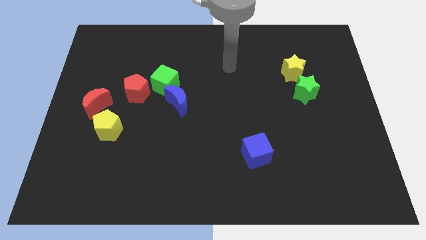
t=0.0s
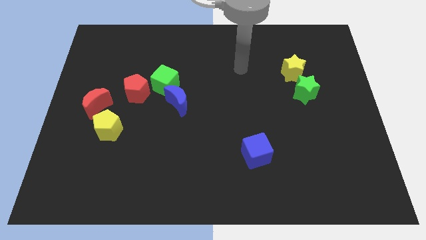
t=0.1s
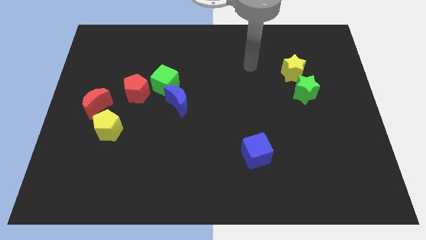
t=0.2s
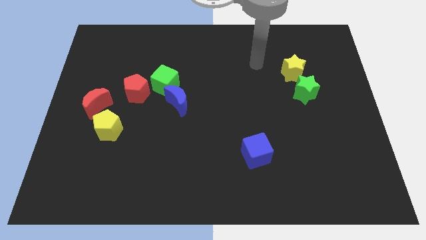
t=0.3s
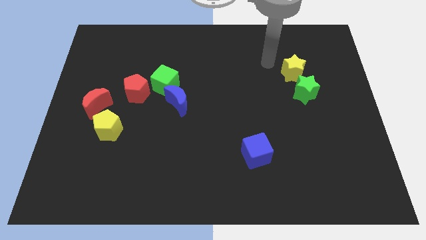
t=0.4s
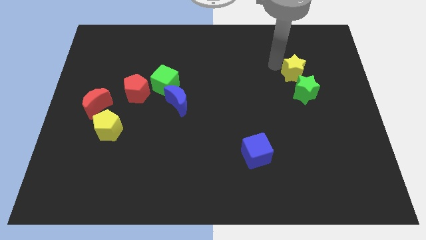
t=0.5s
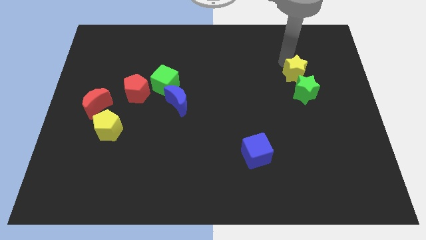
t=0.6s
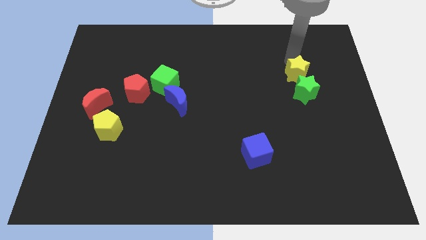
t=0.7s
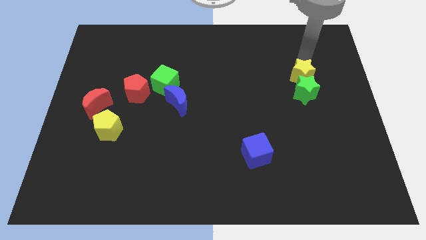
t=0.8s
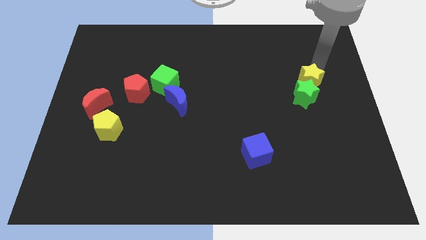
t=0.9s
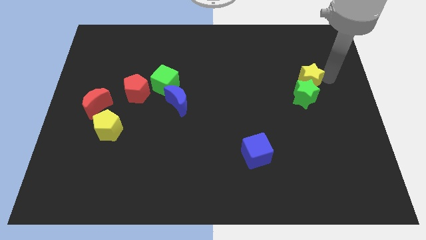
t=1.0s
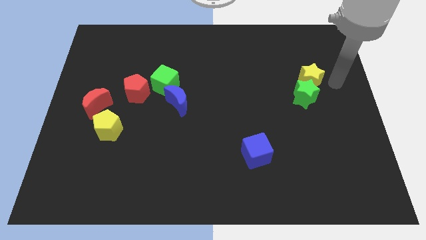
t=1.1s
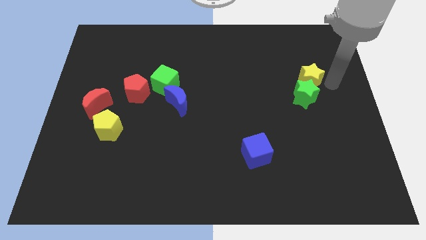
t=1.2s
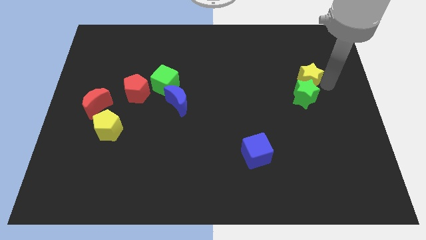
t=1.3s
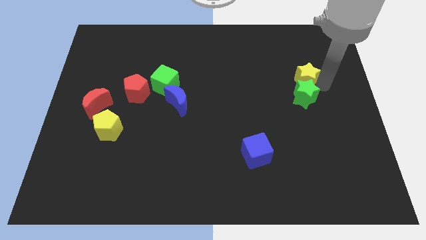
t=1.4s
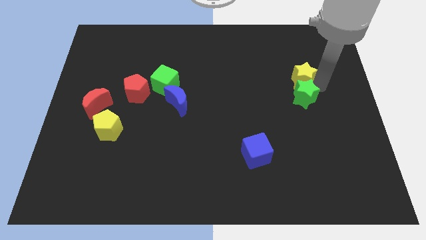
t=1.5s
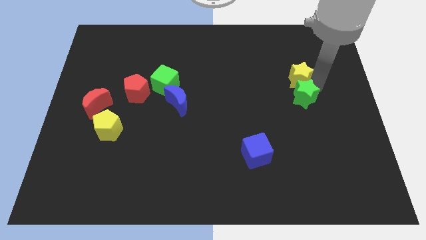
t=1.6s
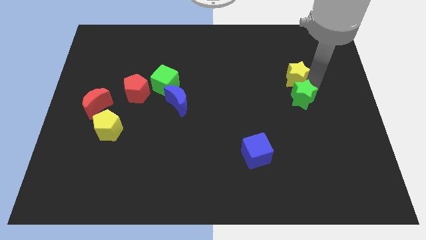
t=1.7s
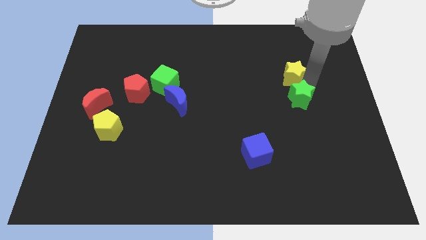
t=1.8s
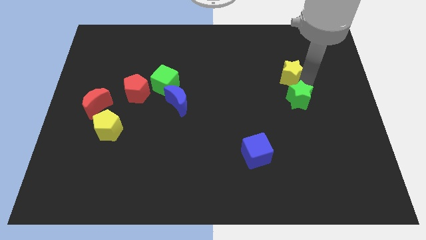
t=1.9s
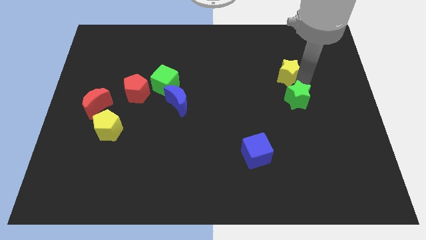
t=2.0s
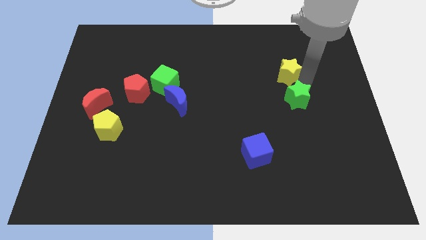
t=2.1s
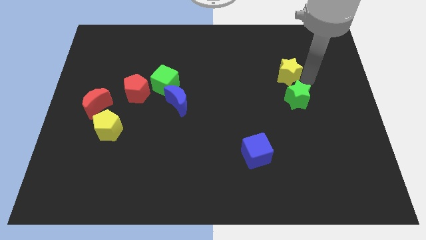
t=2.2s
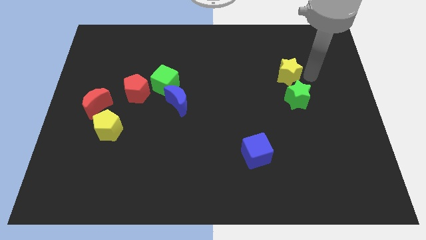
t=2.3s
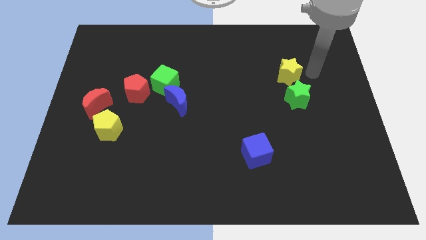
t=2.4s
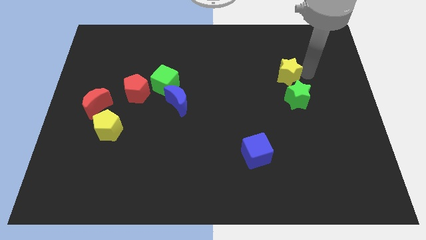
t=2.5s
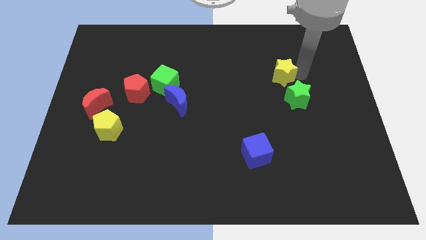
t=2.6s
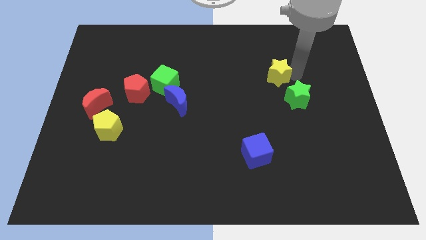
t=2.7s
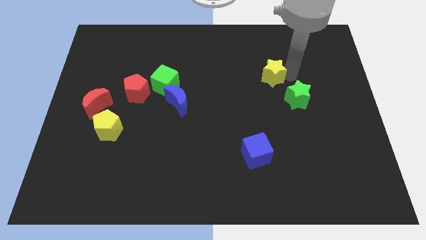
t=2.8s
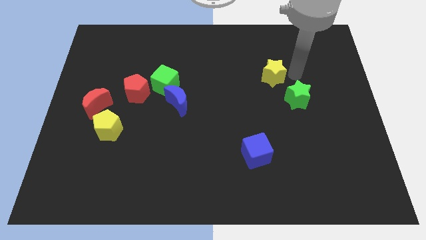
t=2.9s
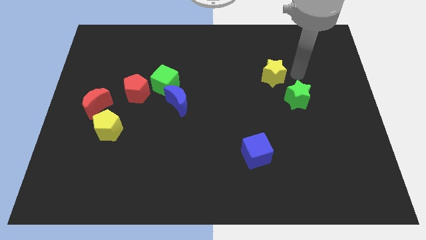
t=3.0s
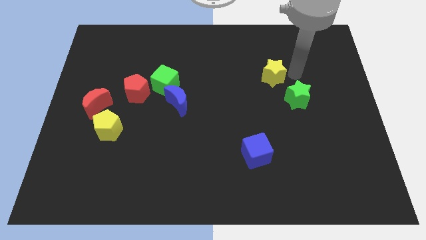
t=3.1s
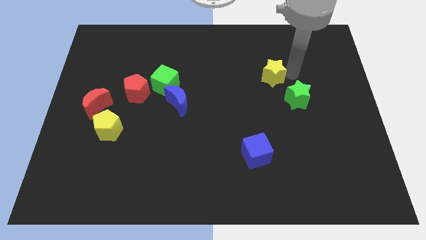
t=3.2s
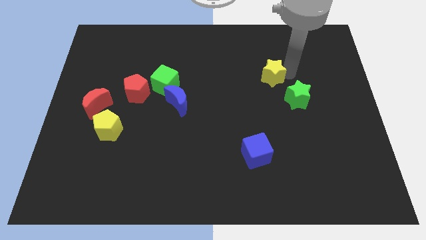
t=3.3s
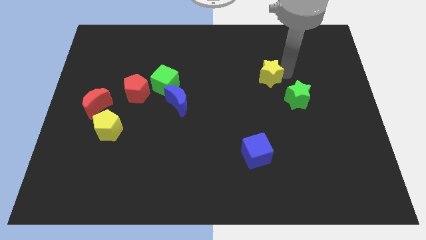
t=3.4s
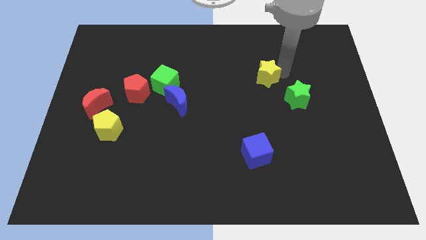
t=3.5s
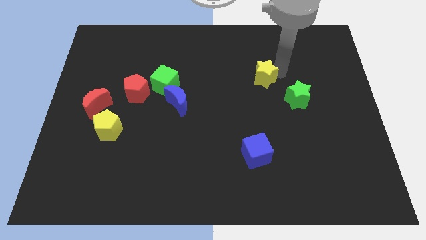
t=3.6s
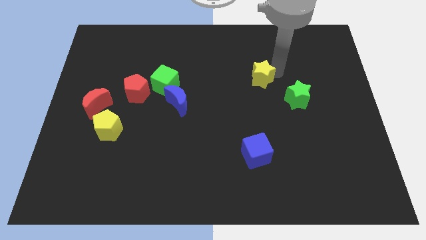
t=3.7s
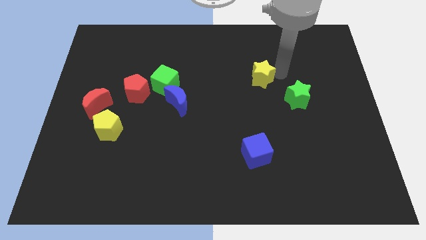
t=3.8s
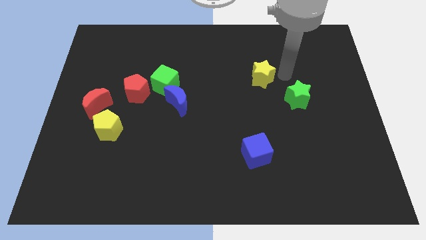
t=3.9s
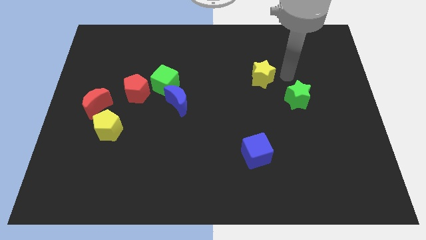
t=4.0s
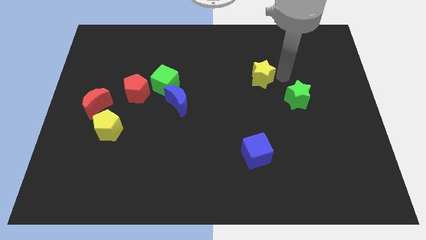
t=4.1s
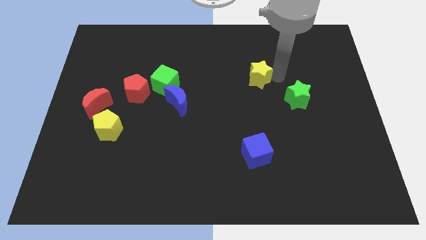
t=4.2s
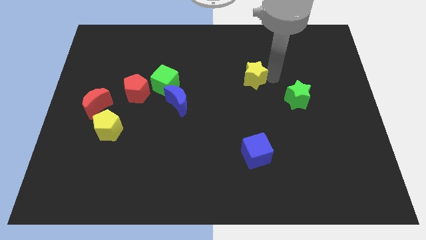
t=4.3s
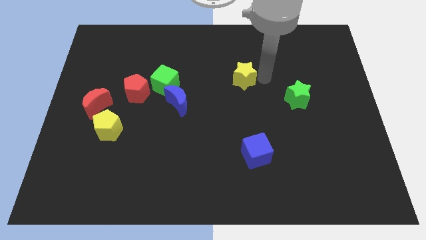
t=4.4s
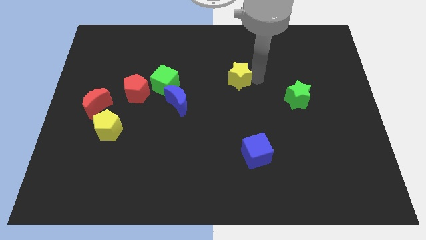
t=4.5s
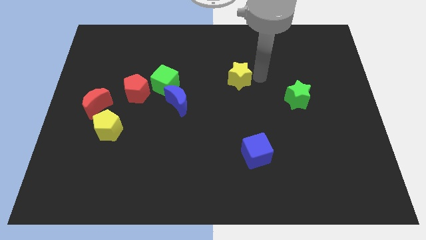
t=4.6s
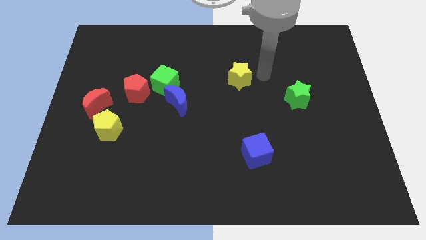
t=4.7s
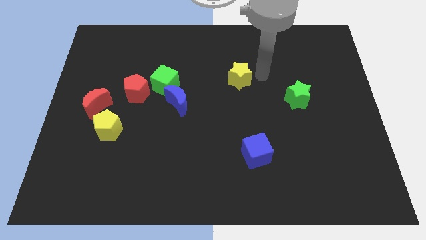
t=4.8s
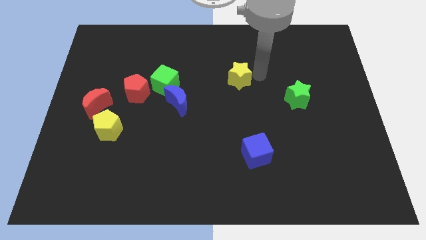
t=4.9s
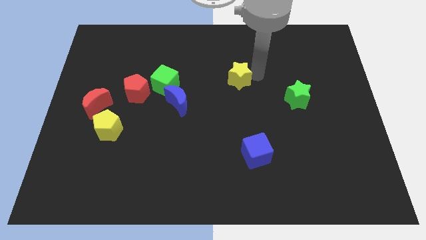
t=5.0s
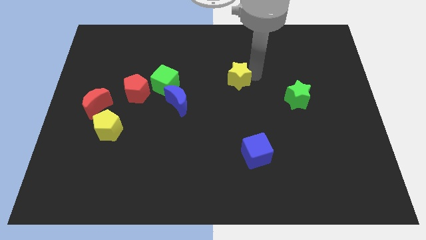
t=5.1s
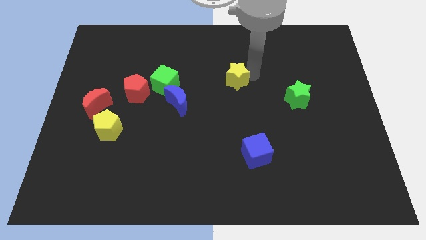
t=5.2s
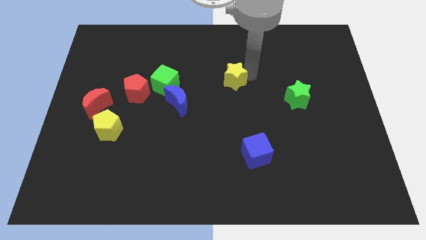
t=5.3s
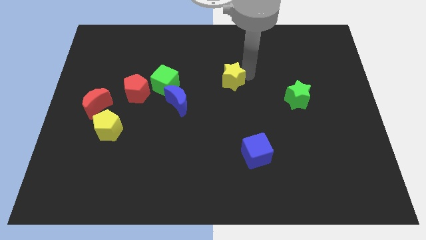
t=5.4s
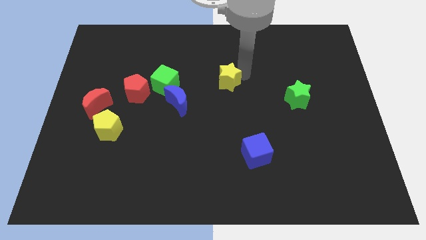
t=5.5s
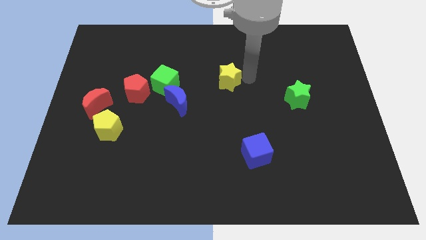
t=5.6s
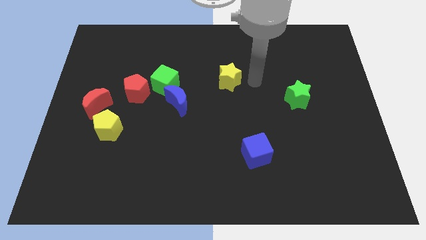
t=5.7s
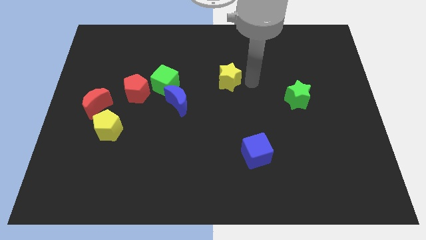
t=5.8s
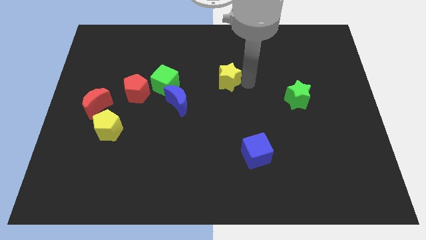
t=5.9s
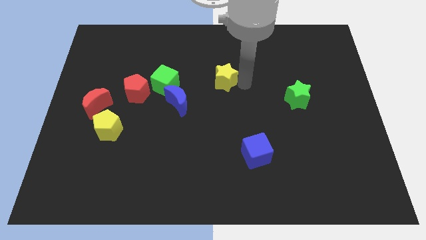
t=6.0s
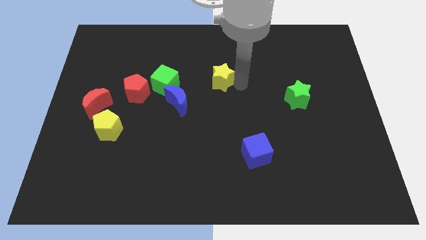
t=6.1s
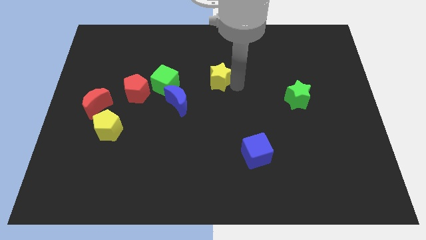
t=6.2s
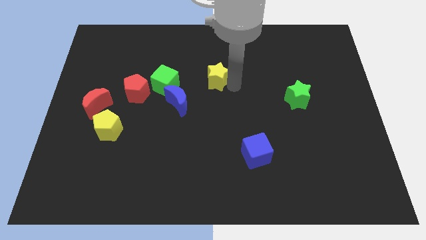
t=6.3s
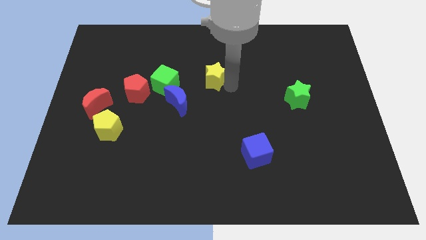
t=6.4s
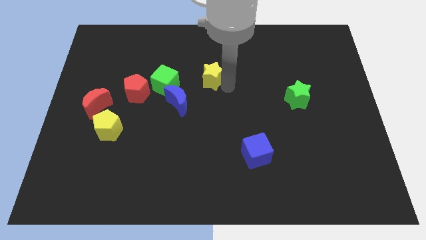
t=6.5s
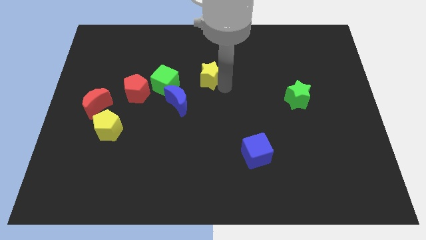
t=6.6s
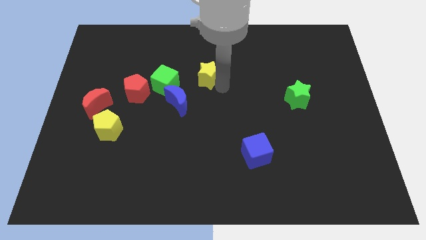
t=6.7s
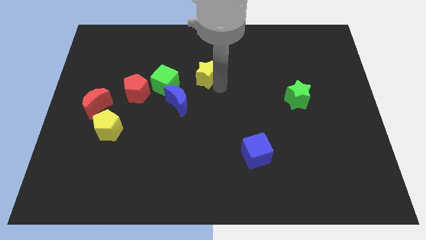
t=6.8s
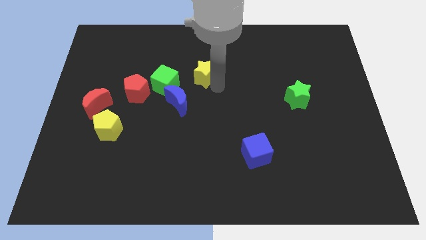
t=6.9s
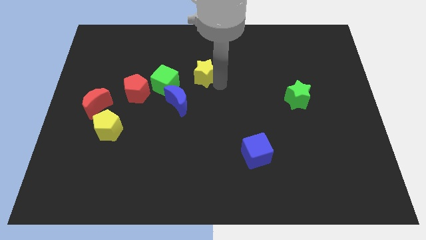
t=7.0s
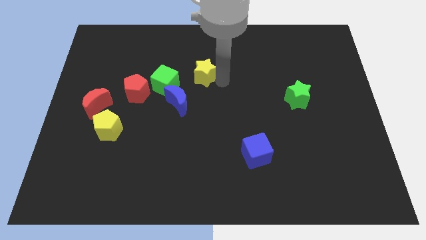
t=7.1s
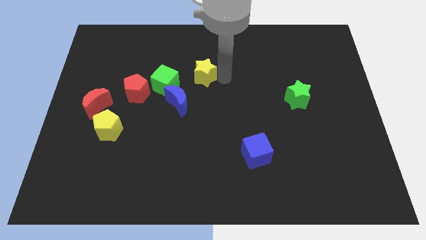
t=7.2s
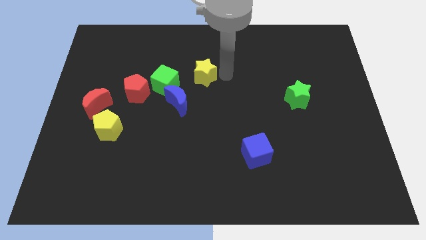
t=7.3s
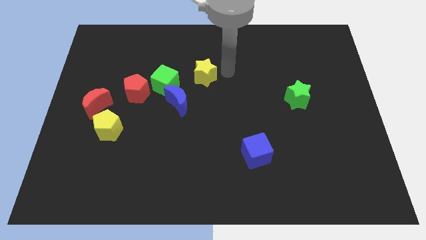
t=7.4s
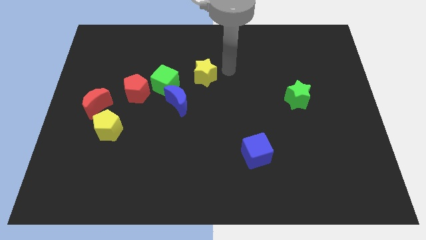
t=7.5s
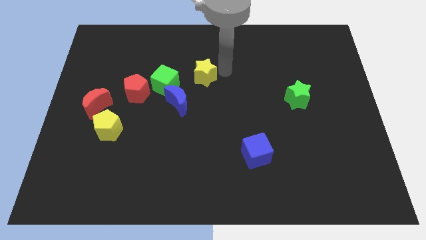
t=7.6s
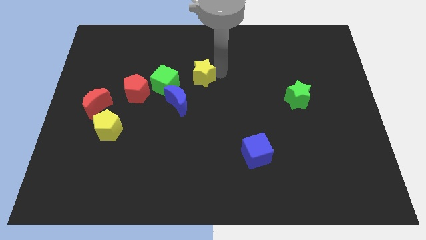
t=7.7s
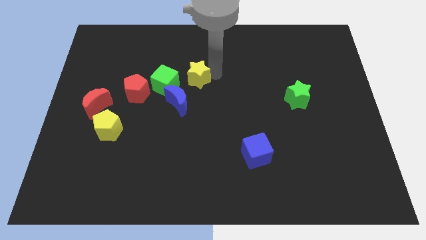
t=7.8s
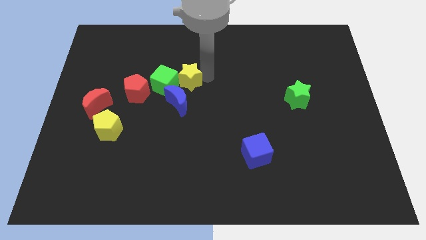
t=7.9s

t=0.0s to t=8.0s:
push the yellow star close to the green cube

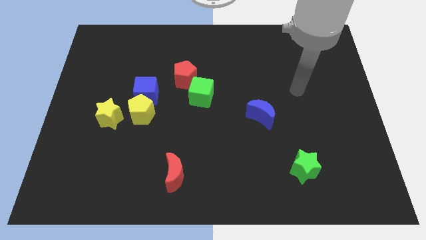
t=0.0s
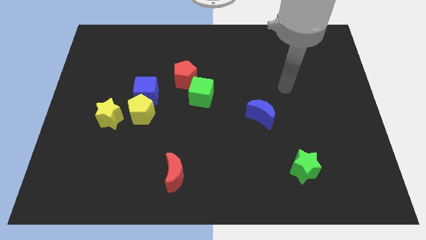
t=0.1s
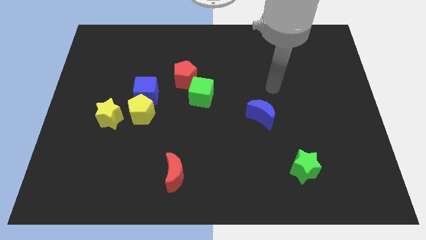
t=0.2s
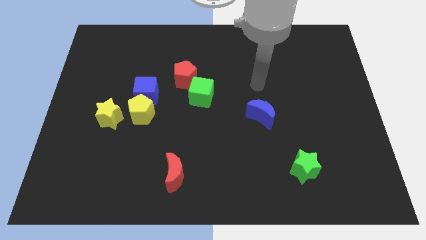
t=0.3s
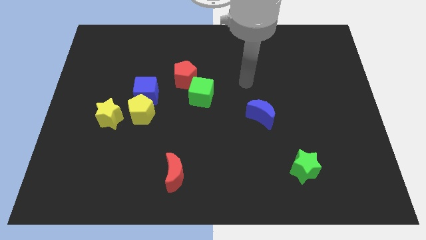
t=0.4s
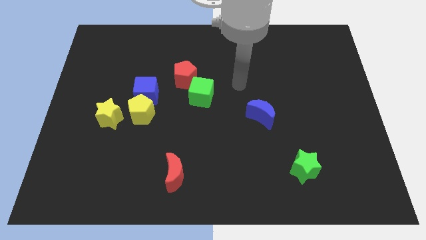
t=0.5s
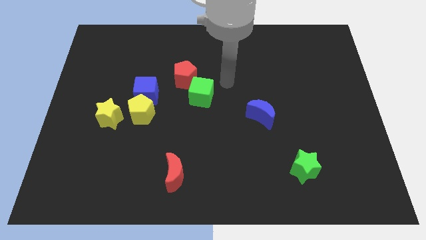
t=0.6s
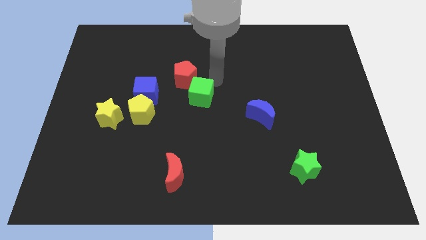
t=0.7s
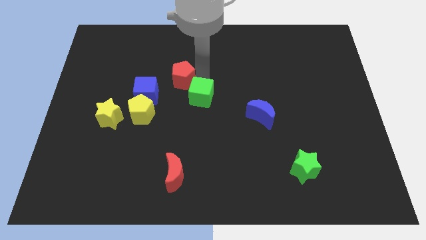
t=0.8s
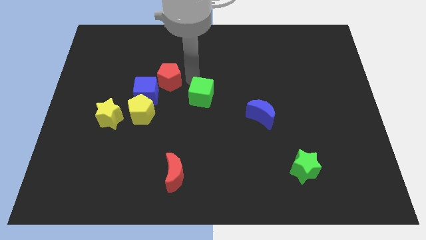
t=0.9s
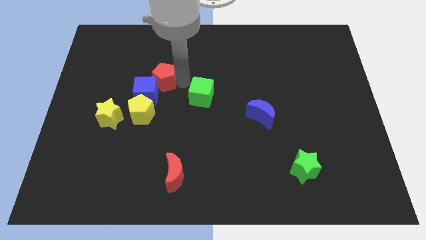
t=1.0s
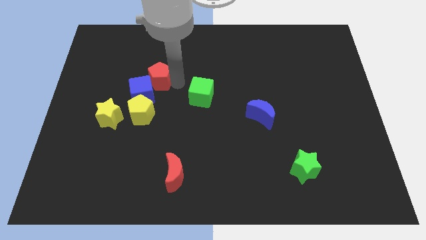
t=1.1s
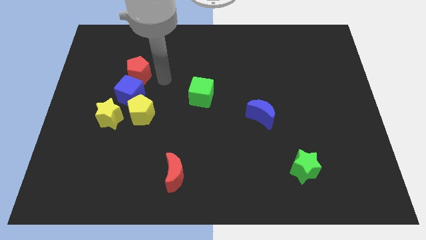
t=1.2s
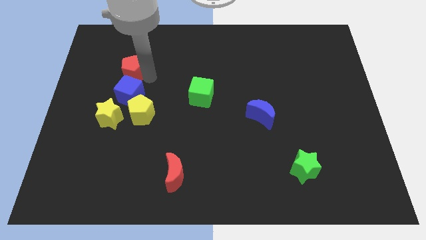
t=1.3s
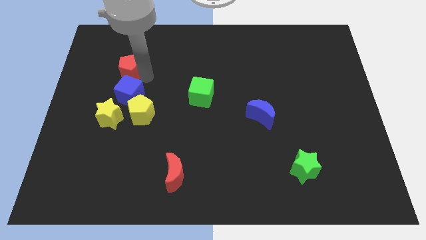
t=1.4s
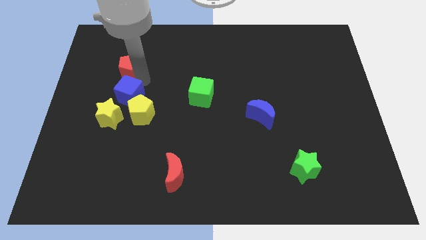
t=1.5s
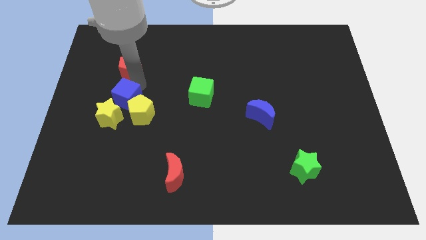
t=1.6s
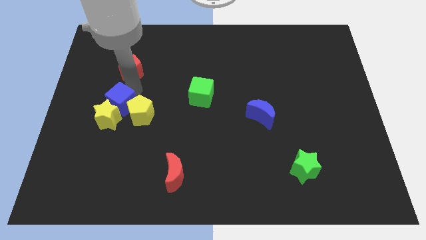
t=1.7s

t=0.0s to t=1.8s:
slide the blue cube to the yellow star
